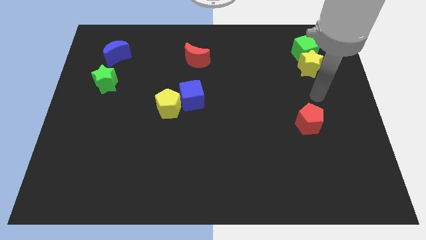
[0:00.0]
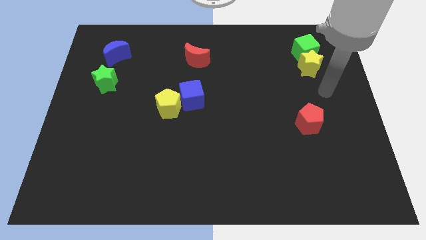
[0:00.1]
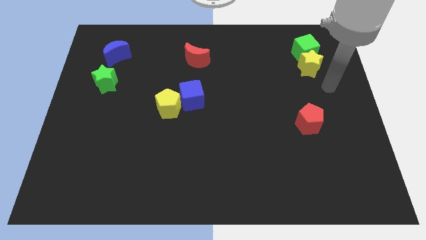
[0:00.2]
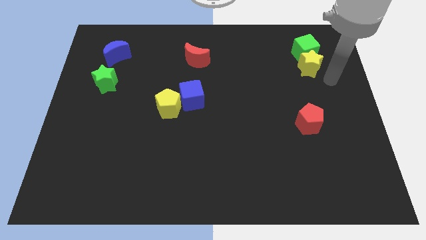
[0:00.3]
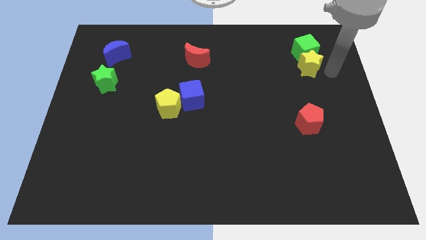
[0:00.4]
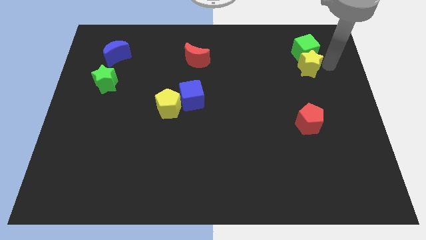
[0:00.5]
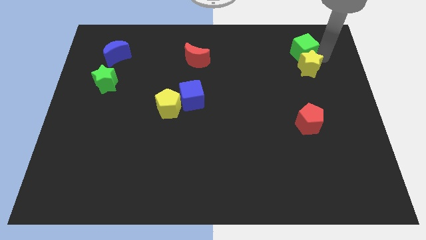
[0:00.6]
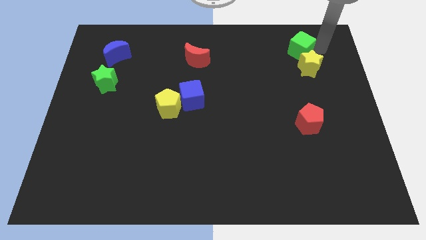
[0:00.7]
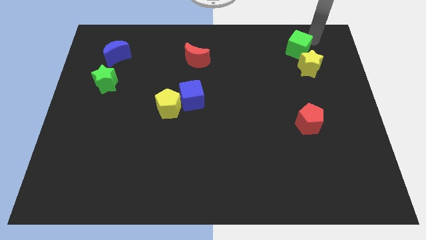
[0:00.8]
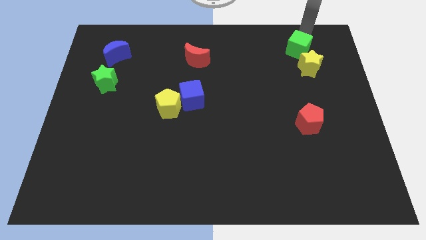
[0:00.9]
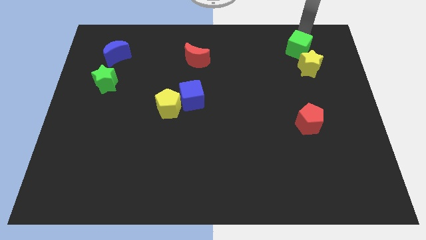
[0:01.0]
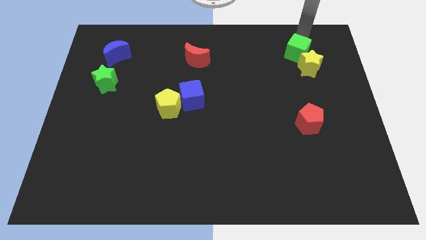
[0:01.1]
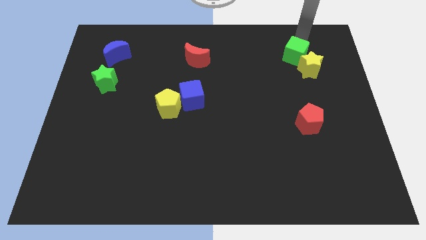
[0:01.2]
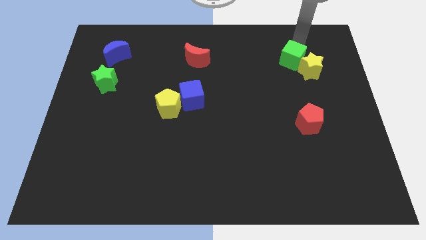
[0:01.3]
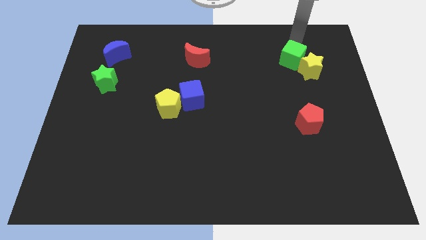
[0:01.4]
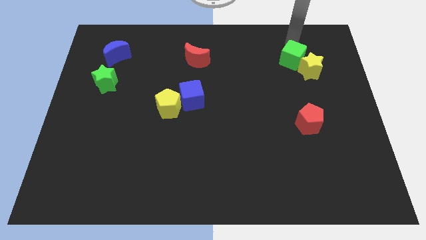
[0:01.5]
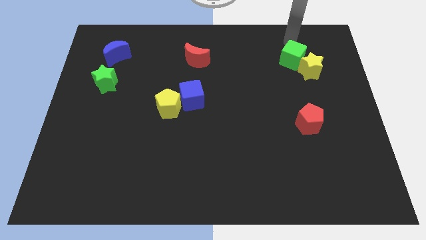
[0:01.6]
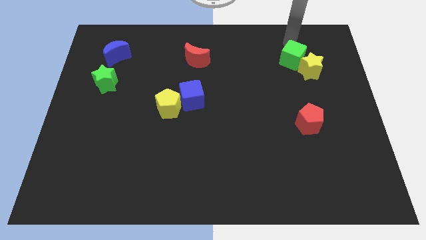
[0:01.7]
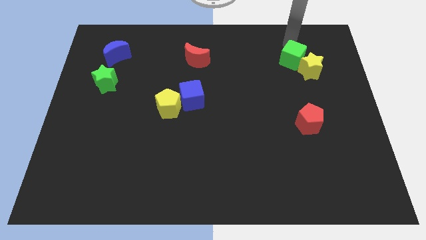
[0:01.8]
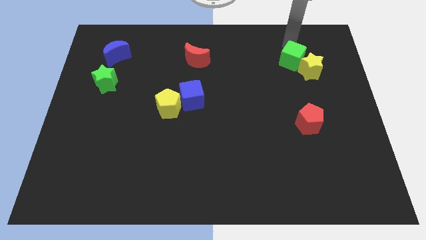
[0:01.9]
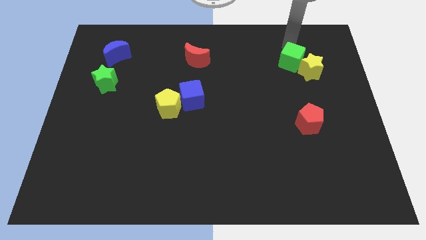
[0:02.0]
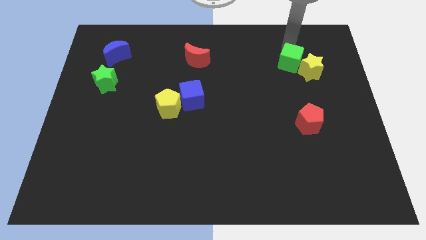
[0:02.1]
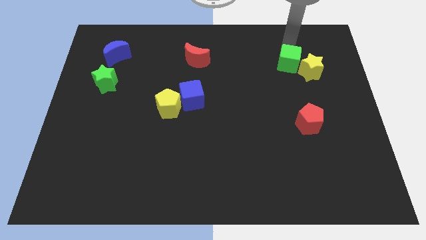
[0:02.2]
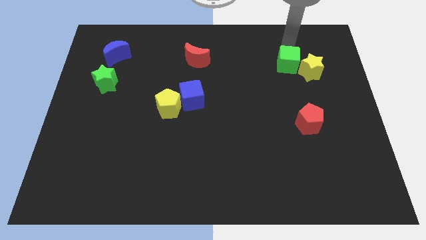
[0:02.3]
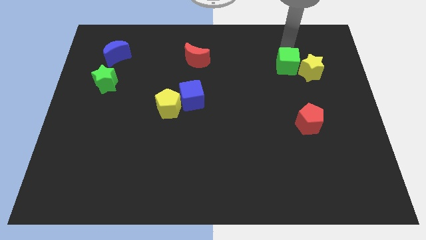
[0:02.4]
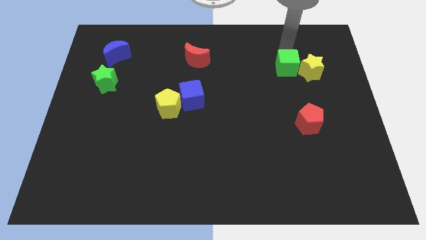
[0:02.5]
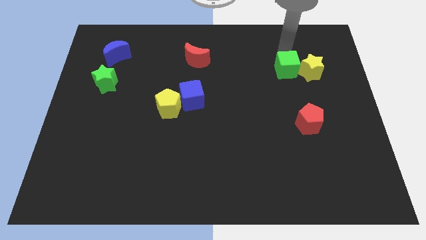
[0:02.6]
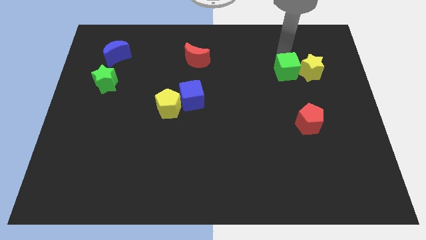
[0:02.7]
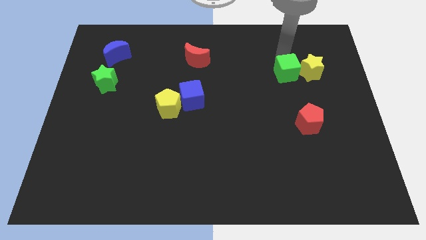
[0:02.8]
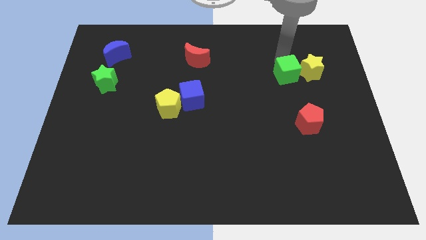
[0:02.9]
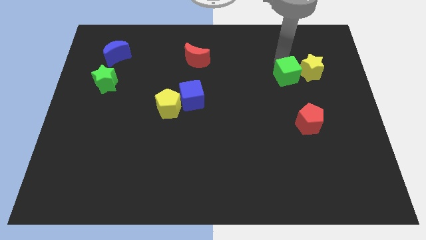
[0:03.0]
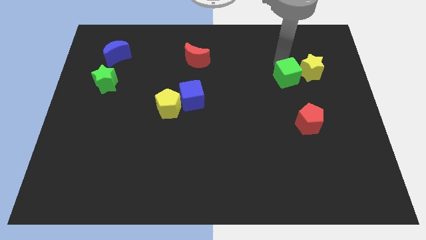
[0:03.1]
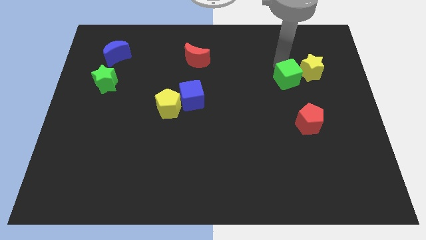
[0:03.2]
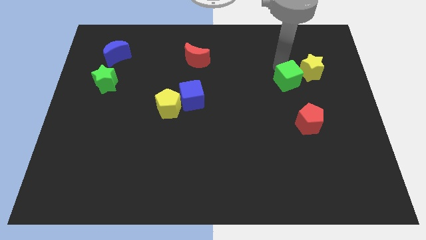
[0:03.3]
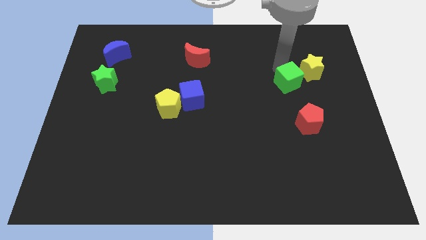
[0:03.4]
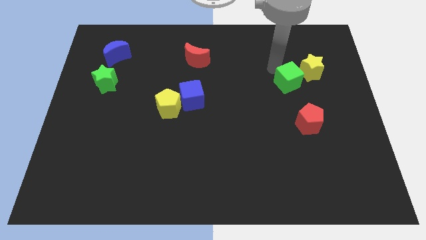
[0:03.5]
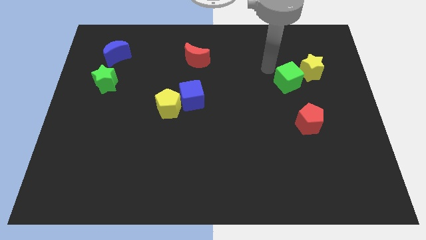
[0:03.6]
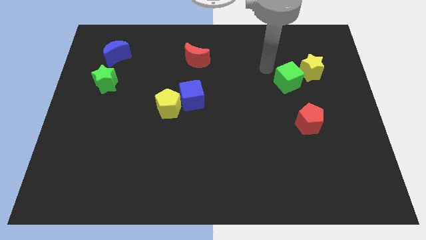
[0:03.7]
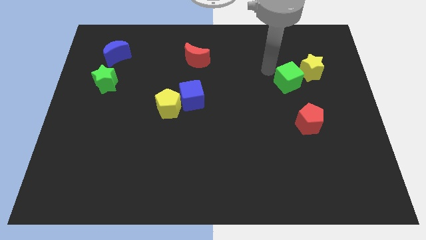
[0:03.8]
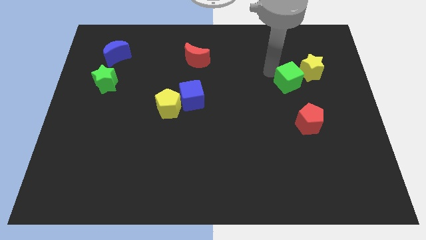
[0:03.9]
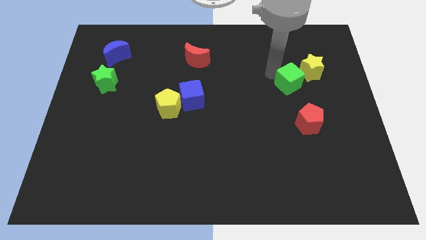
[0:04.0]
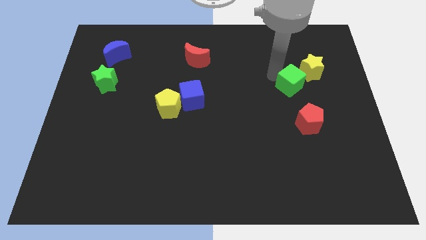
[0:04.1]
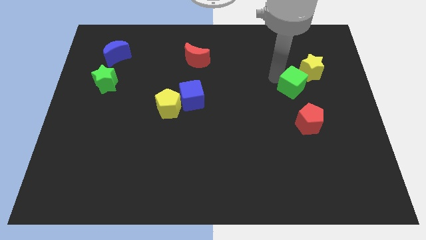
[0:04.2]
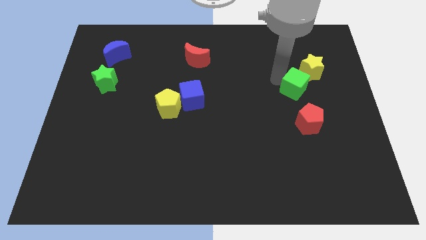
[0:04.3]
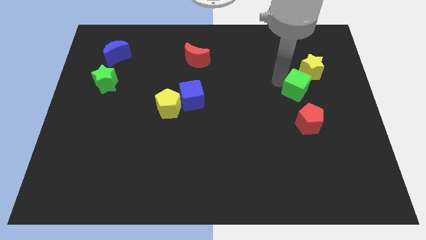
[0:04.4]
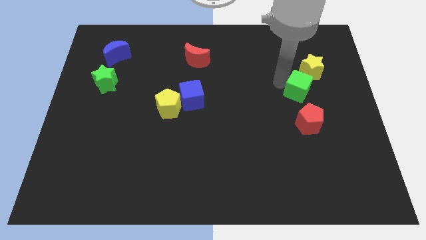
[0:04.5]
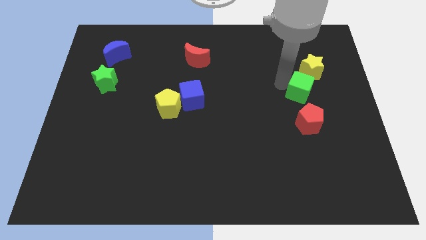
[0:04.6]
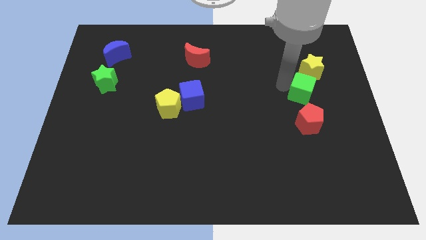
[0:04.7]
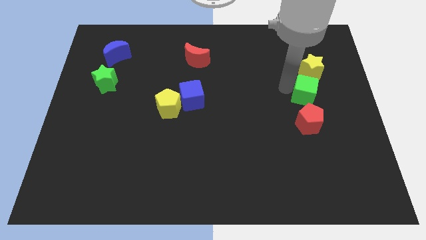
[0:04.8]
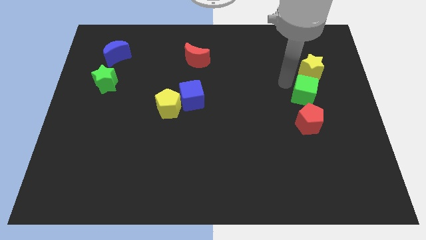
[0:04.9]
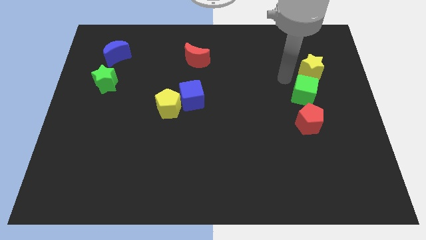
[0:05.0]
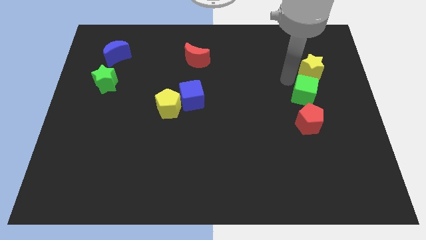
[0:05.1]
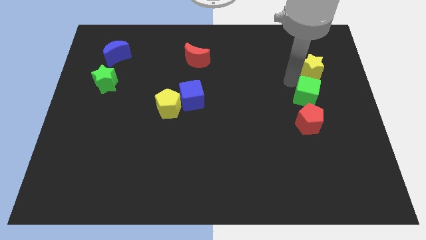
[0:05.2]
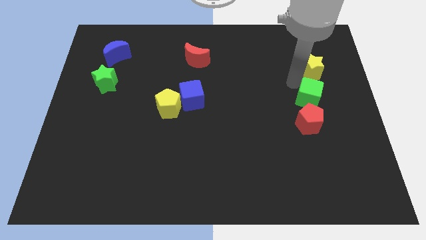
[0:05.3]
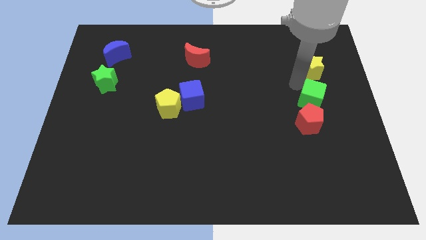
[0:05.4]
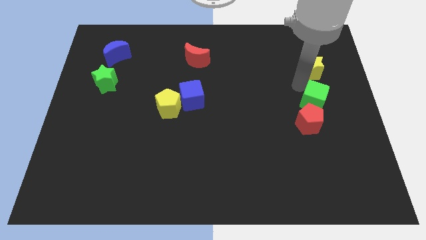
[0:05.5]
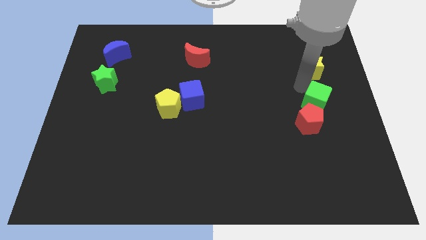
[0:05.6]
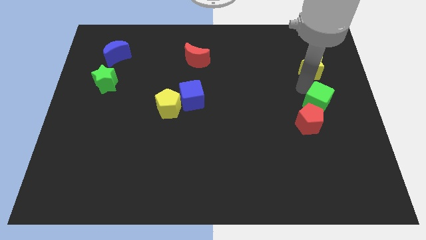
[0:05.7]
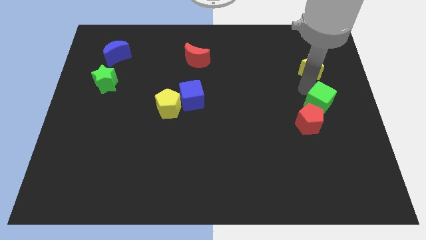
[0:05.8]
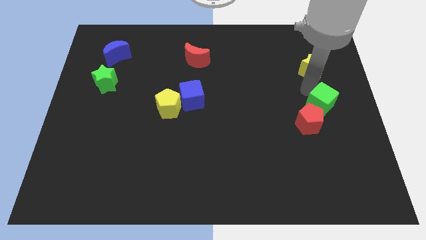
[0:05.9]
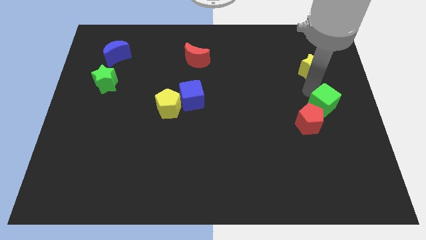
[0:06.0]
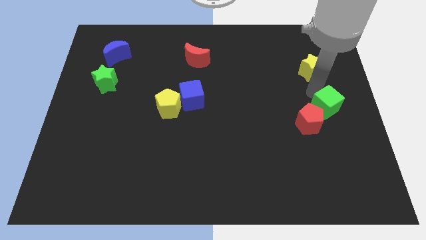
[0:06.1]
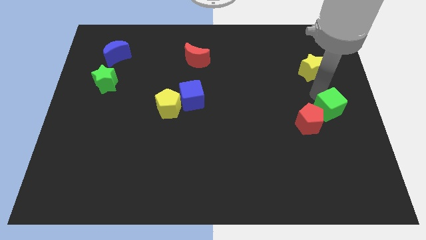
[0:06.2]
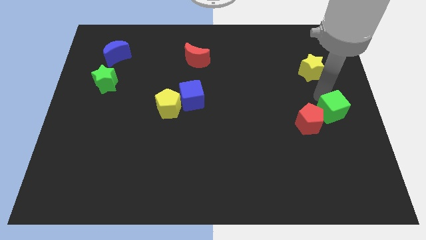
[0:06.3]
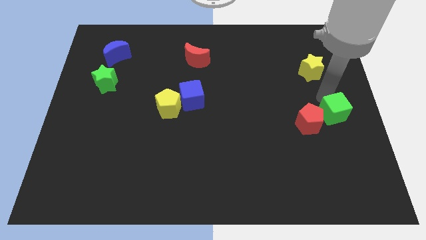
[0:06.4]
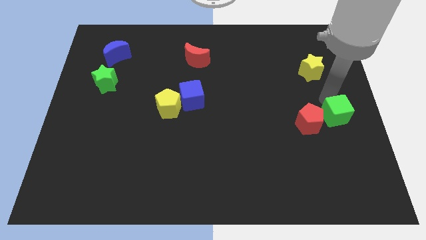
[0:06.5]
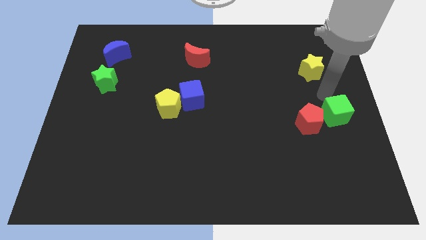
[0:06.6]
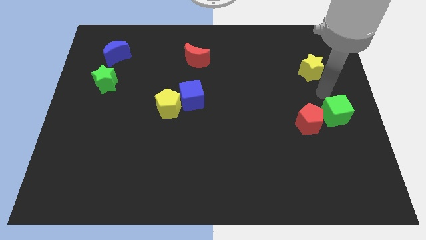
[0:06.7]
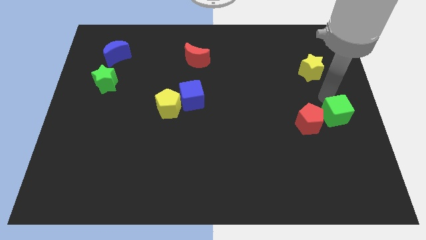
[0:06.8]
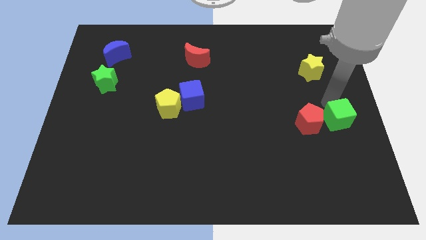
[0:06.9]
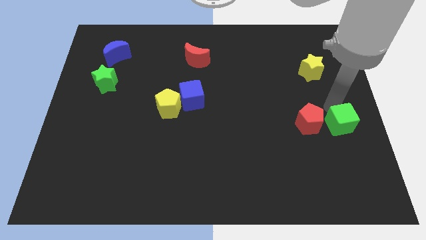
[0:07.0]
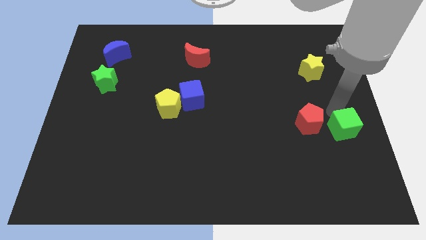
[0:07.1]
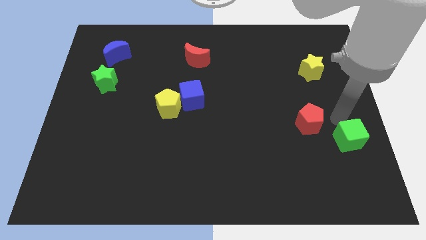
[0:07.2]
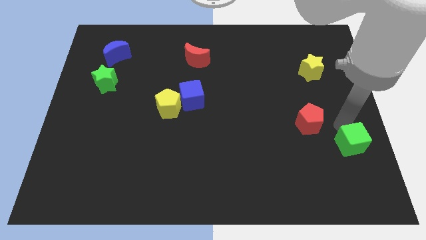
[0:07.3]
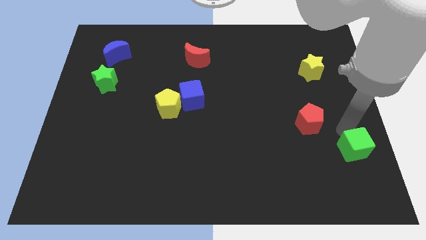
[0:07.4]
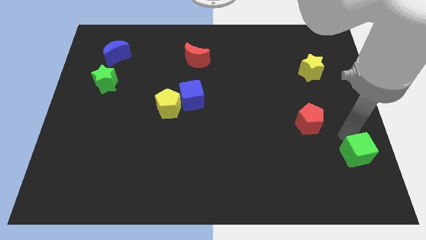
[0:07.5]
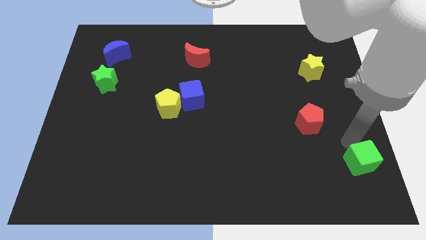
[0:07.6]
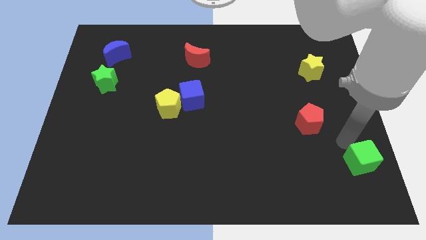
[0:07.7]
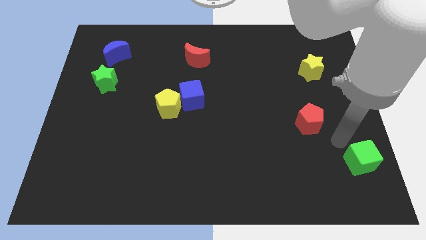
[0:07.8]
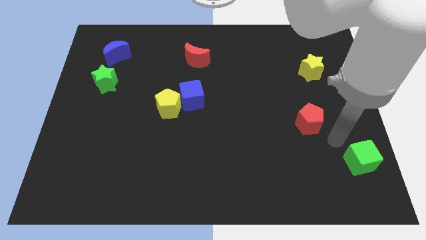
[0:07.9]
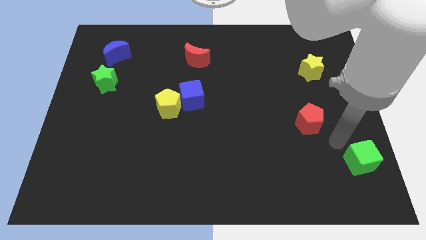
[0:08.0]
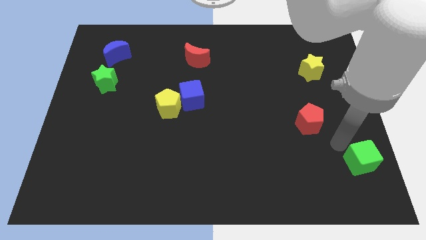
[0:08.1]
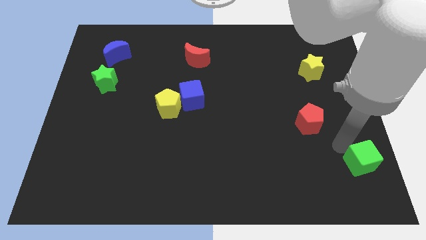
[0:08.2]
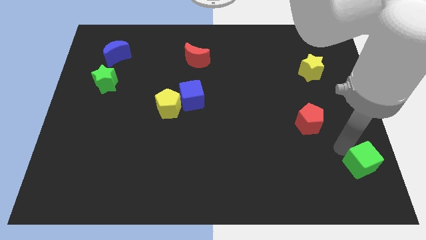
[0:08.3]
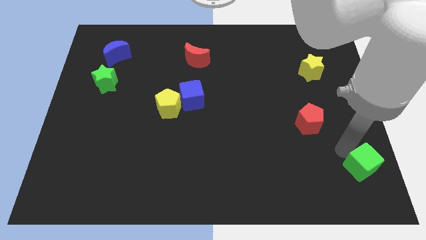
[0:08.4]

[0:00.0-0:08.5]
push the green cube to the lower right corner
